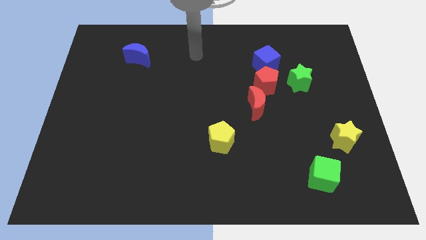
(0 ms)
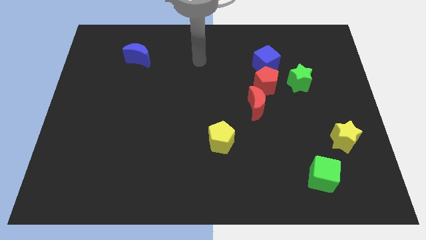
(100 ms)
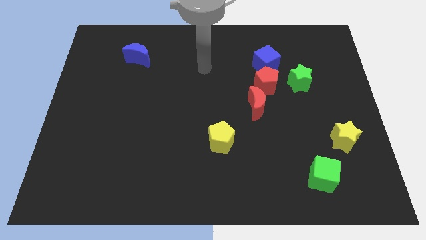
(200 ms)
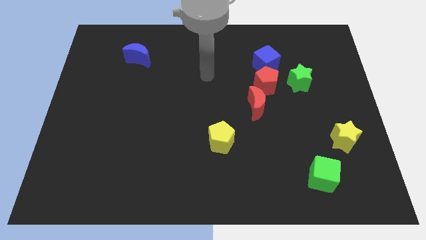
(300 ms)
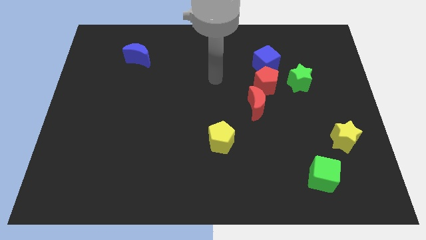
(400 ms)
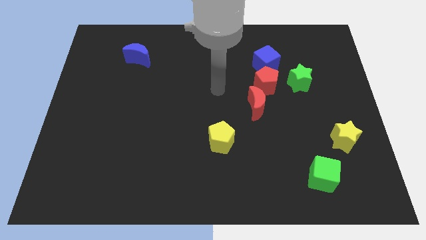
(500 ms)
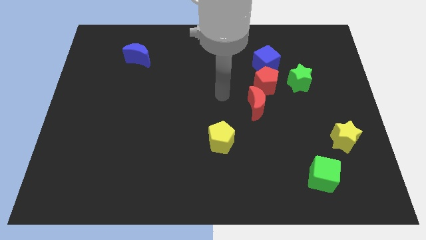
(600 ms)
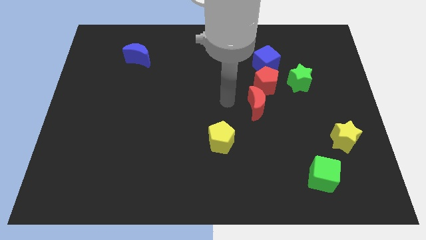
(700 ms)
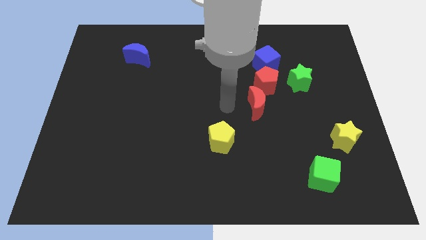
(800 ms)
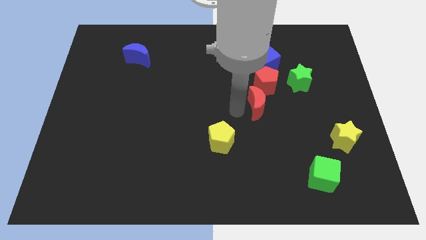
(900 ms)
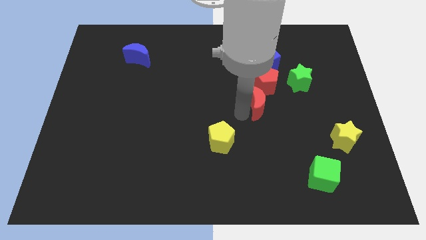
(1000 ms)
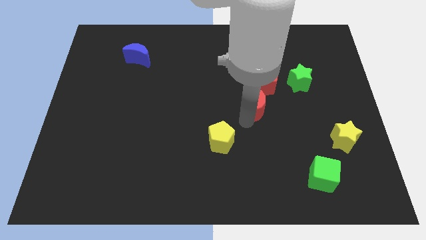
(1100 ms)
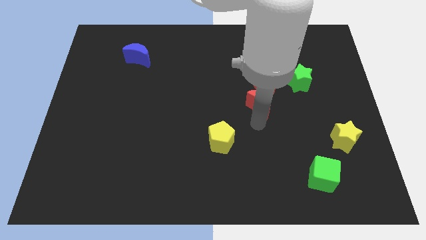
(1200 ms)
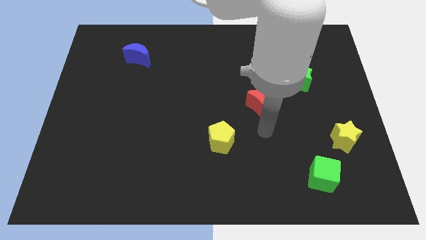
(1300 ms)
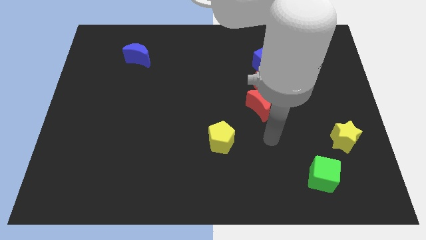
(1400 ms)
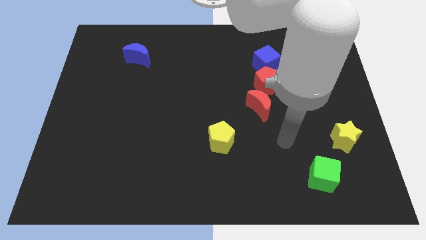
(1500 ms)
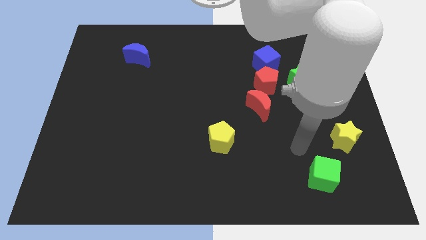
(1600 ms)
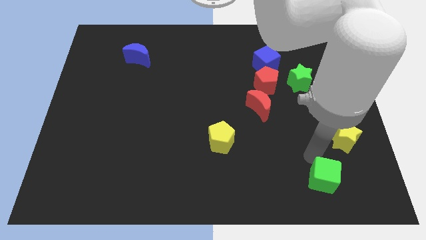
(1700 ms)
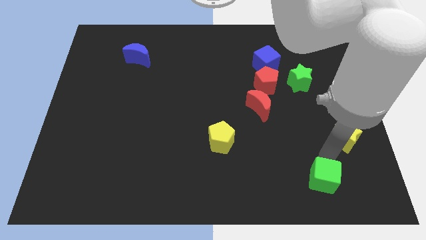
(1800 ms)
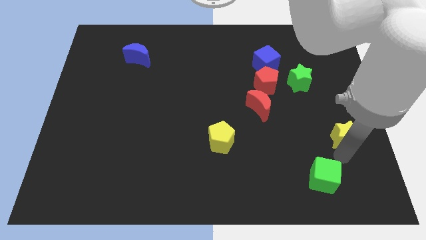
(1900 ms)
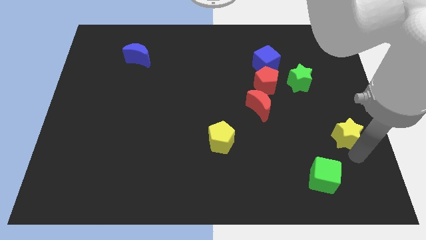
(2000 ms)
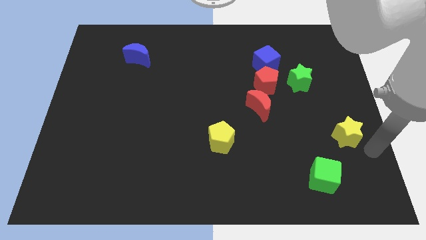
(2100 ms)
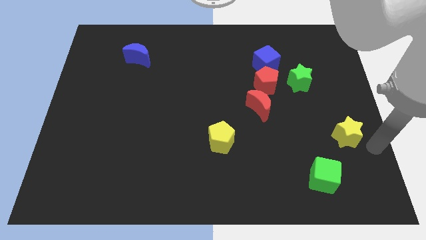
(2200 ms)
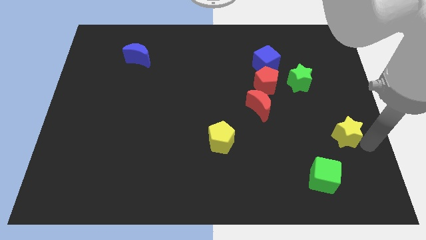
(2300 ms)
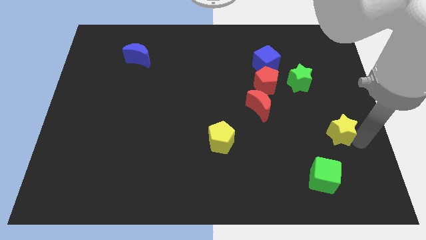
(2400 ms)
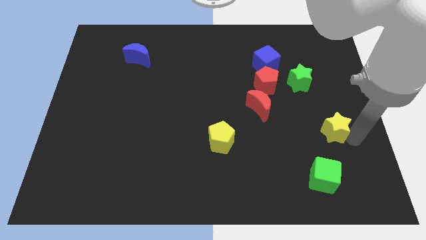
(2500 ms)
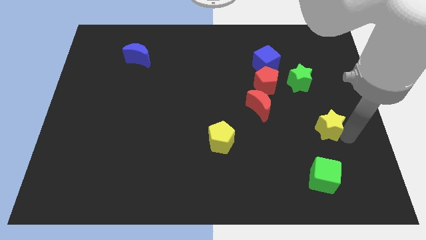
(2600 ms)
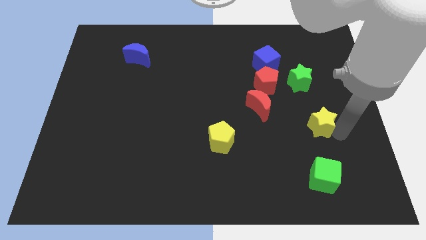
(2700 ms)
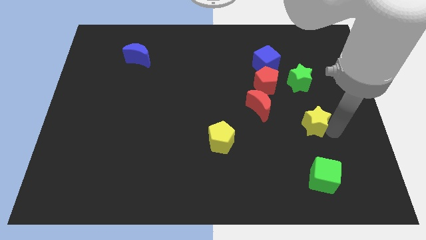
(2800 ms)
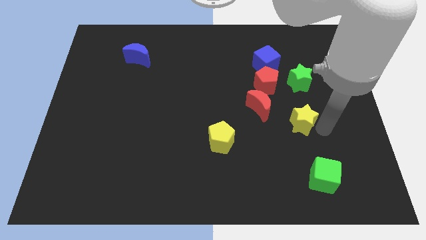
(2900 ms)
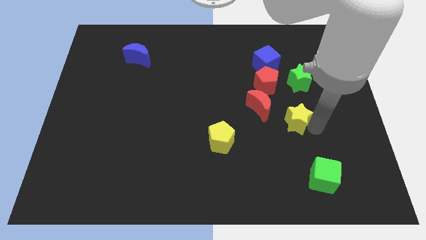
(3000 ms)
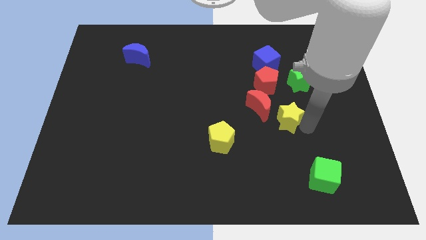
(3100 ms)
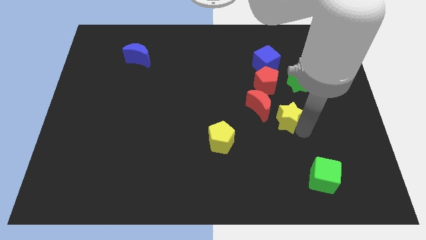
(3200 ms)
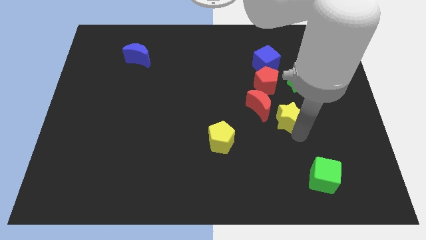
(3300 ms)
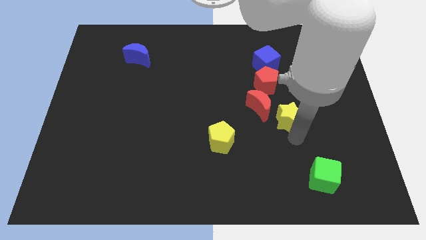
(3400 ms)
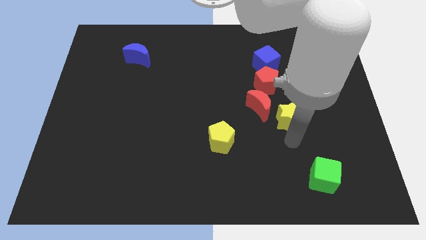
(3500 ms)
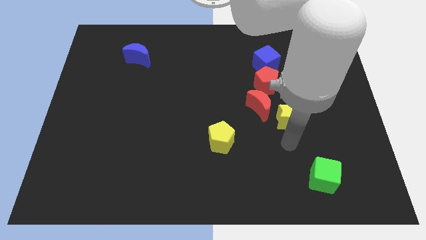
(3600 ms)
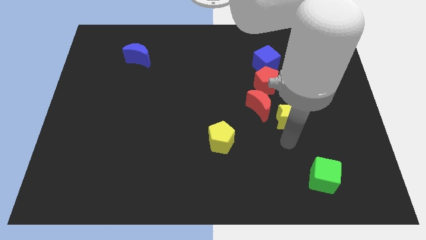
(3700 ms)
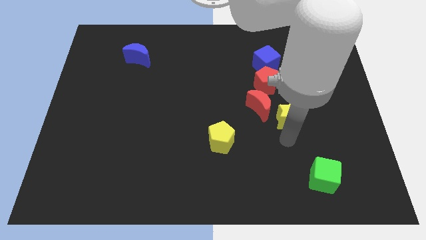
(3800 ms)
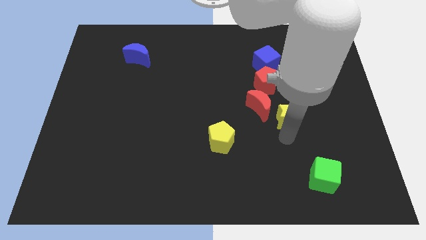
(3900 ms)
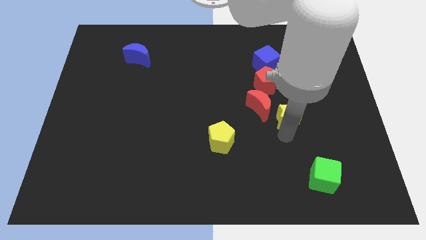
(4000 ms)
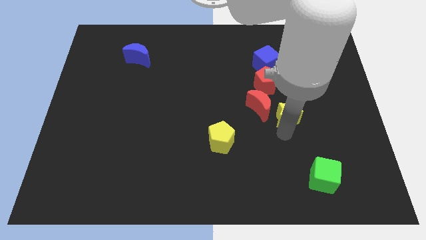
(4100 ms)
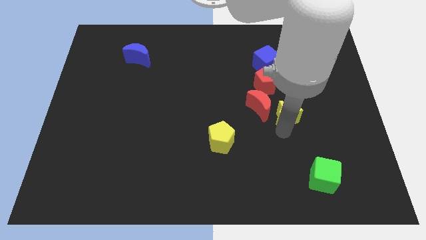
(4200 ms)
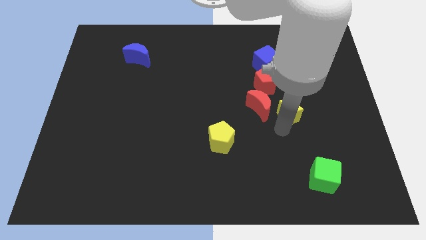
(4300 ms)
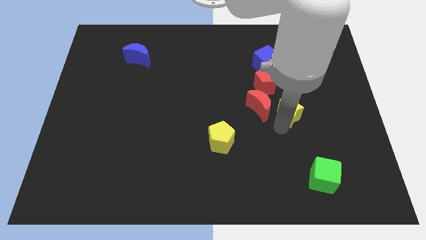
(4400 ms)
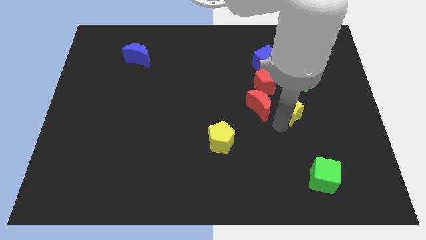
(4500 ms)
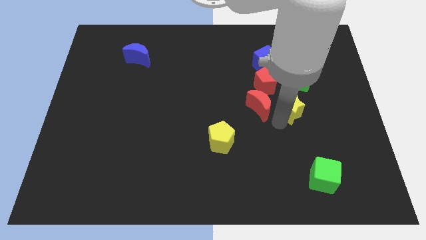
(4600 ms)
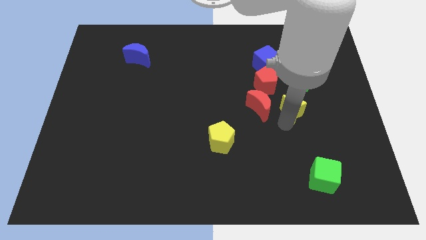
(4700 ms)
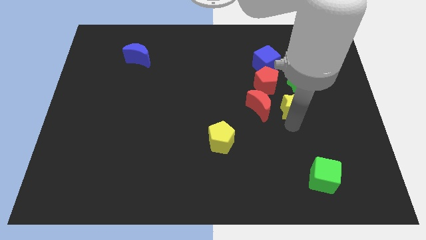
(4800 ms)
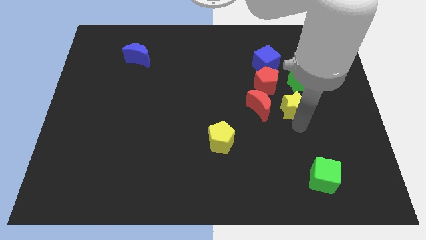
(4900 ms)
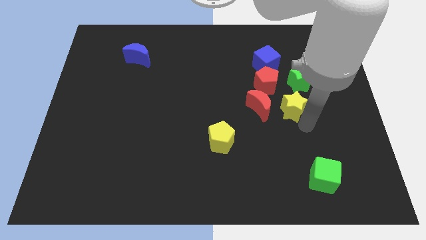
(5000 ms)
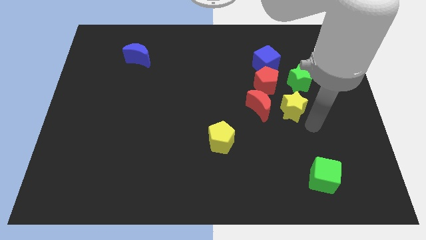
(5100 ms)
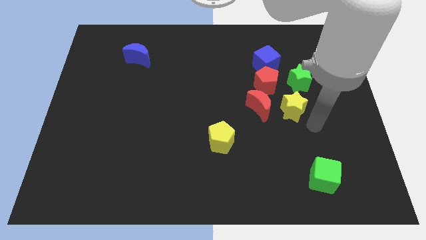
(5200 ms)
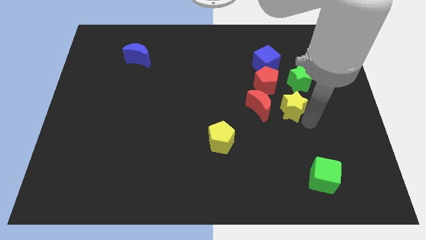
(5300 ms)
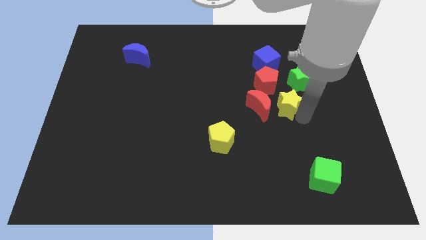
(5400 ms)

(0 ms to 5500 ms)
push the yellow star below the blue cube

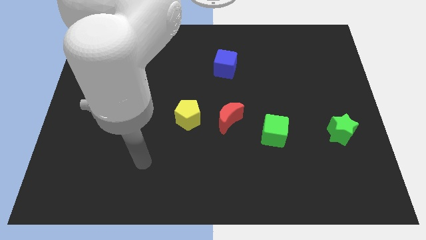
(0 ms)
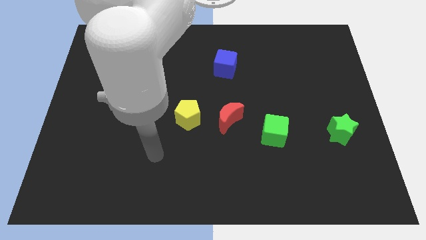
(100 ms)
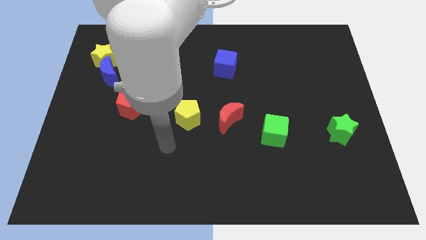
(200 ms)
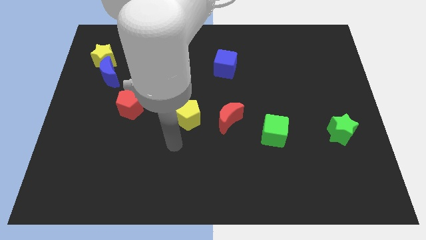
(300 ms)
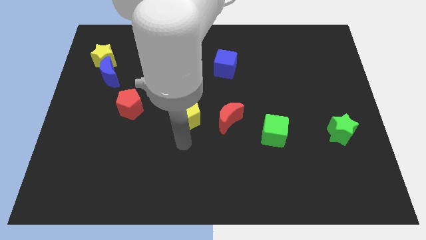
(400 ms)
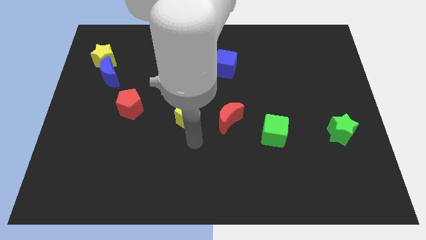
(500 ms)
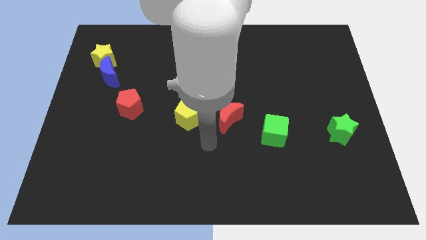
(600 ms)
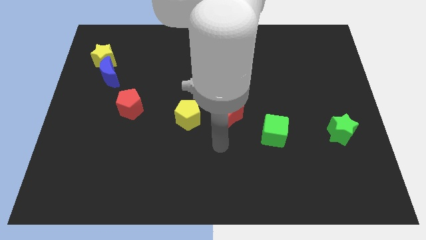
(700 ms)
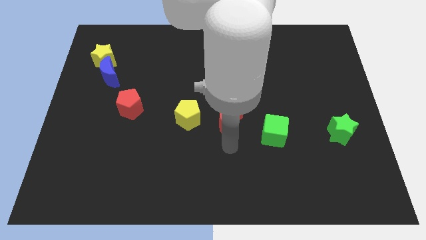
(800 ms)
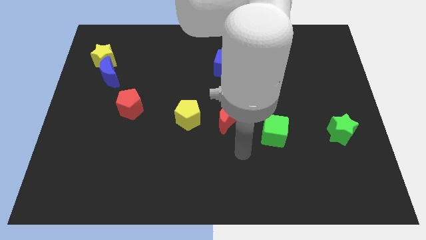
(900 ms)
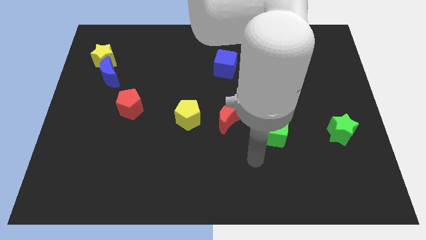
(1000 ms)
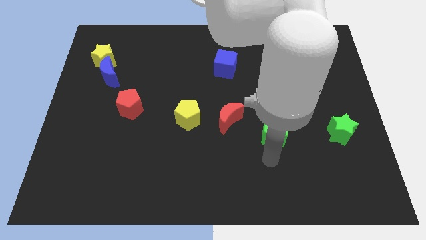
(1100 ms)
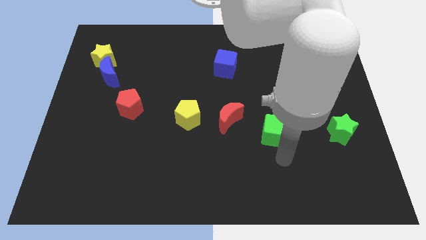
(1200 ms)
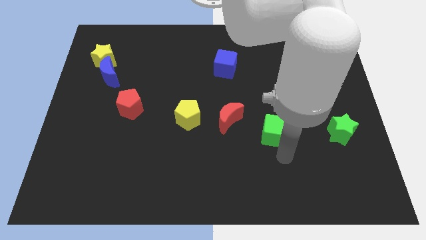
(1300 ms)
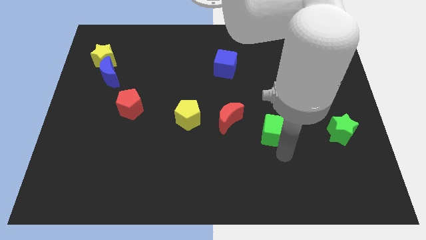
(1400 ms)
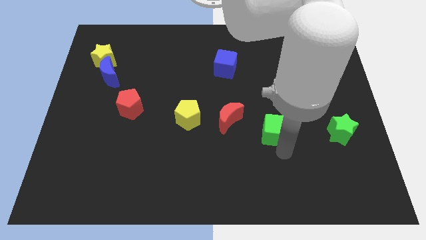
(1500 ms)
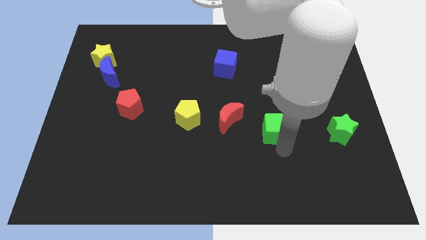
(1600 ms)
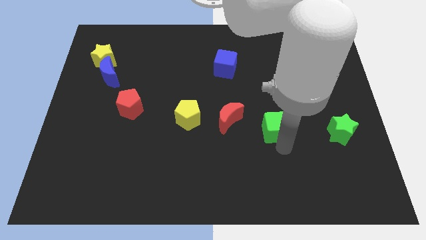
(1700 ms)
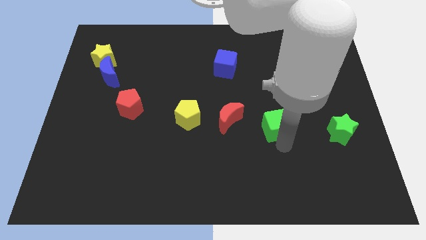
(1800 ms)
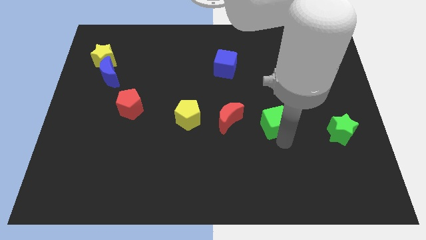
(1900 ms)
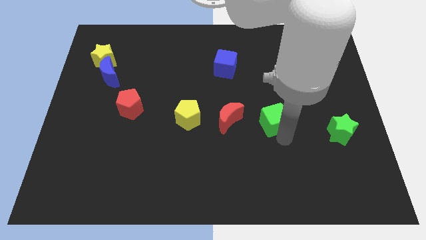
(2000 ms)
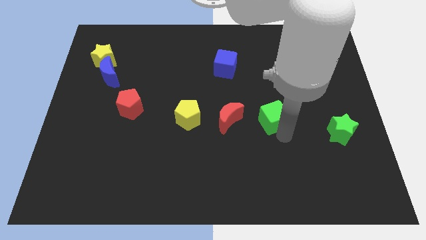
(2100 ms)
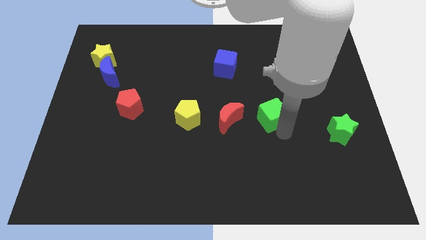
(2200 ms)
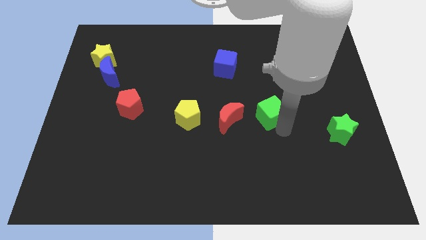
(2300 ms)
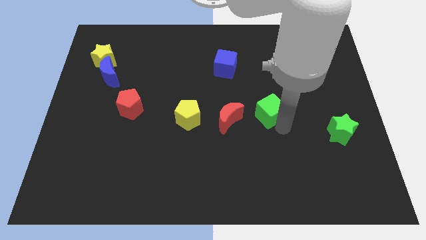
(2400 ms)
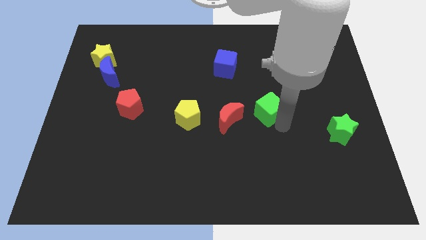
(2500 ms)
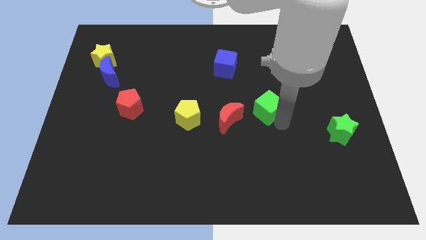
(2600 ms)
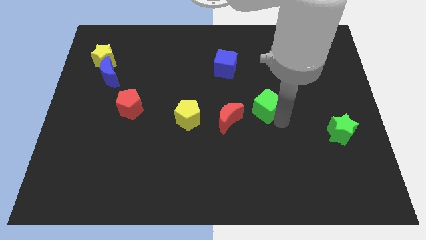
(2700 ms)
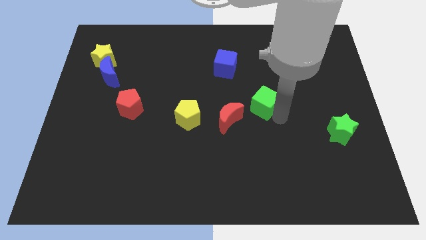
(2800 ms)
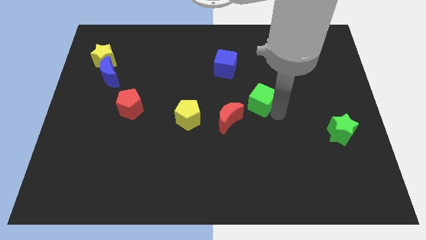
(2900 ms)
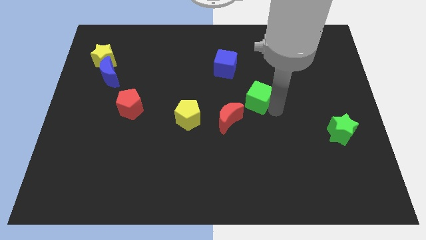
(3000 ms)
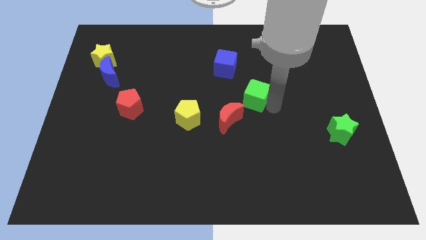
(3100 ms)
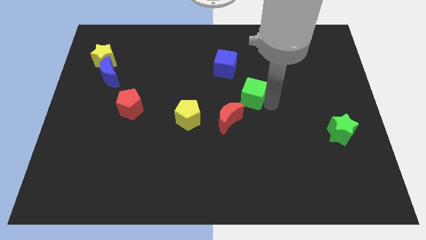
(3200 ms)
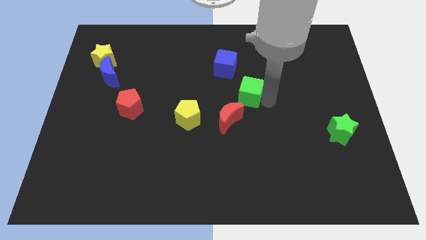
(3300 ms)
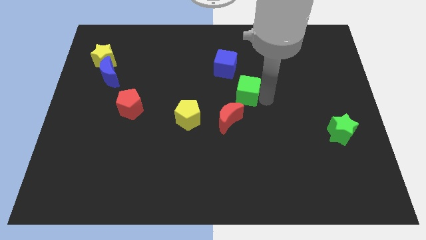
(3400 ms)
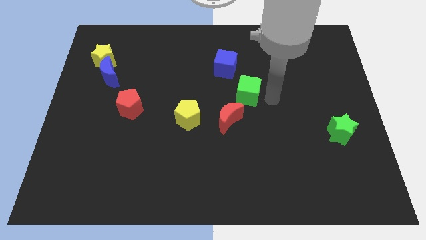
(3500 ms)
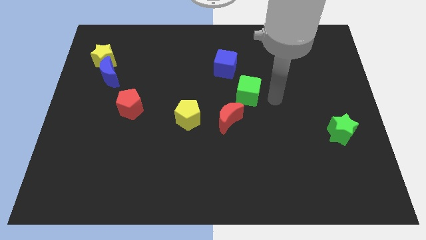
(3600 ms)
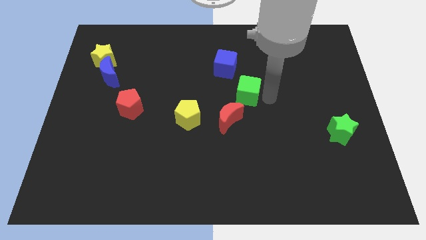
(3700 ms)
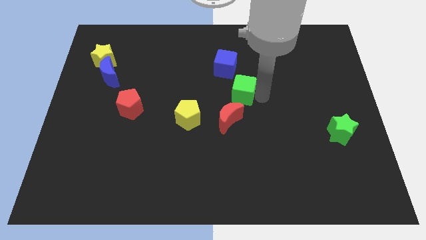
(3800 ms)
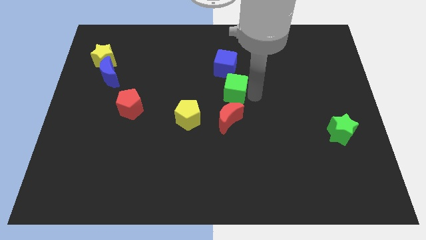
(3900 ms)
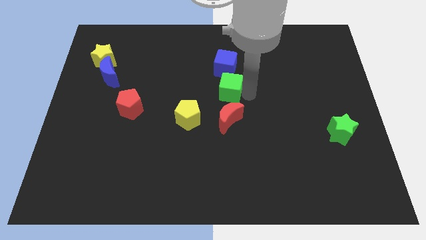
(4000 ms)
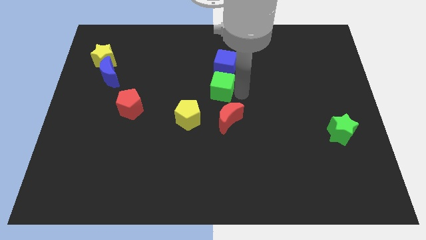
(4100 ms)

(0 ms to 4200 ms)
push the green cube to the bottom left of the blue cube
